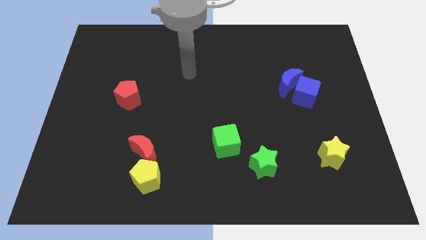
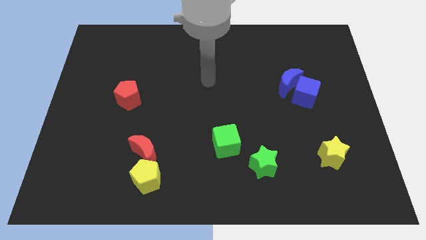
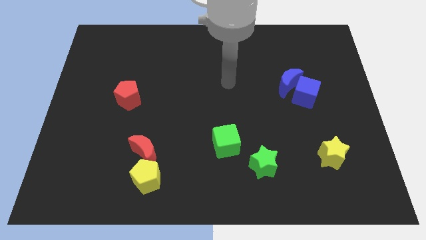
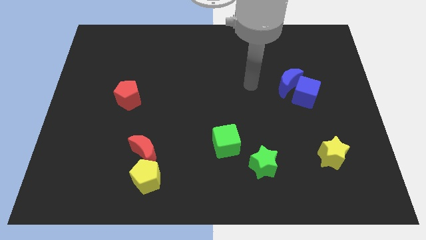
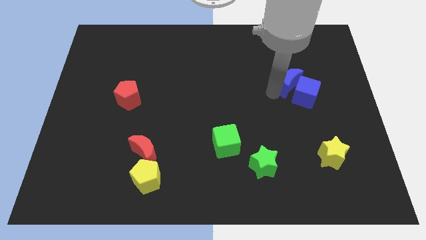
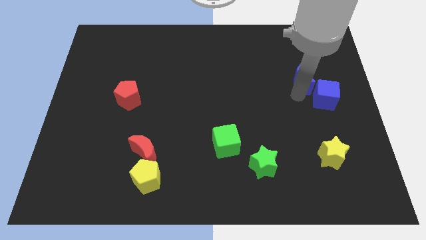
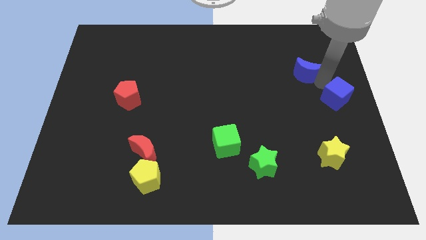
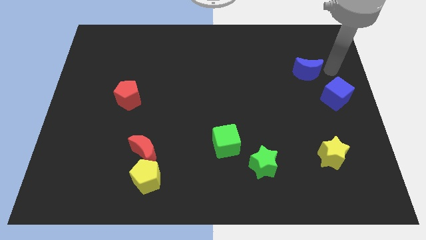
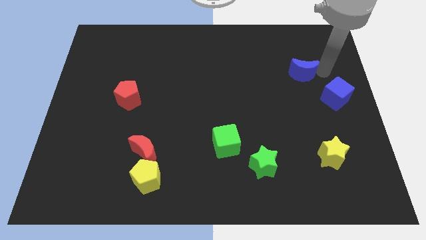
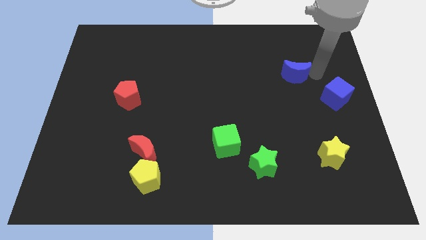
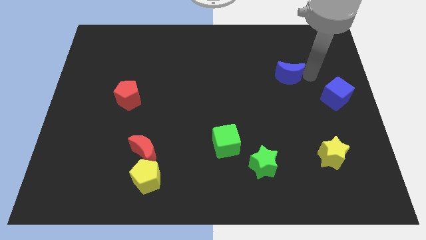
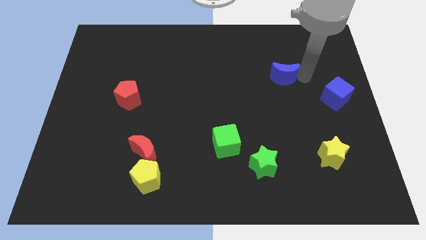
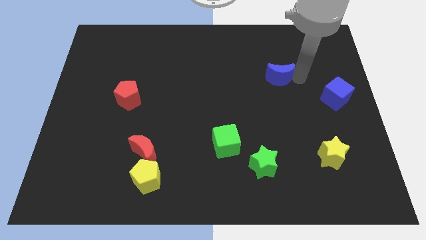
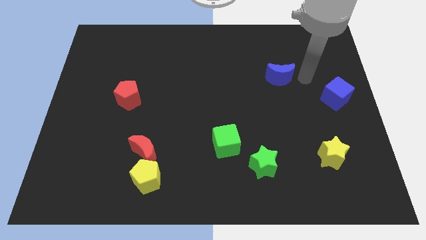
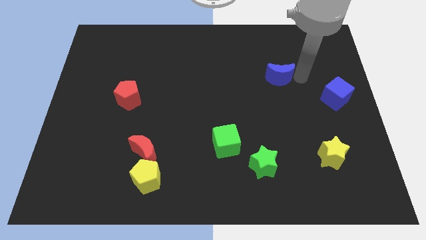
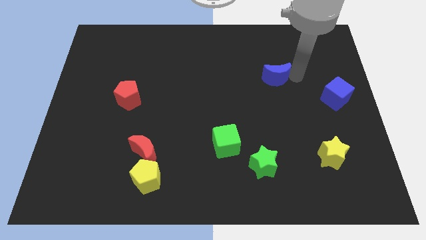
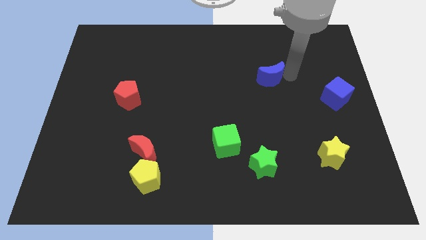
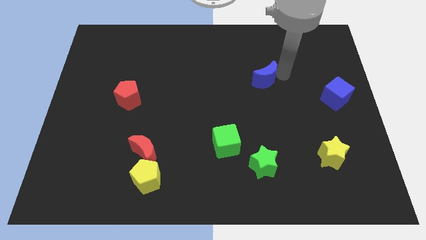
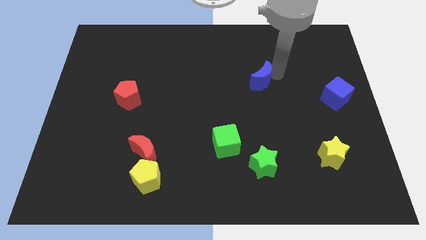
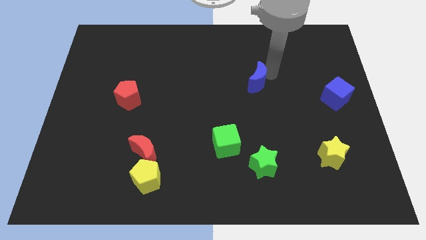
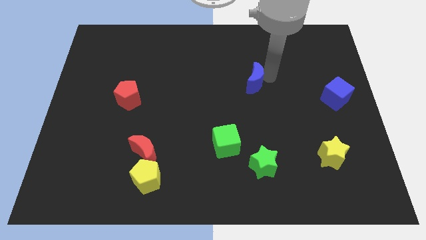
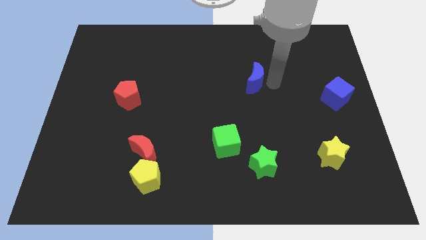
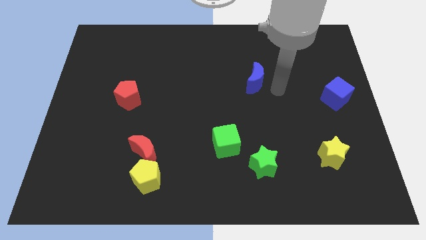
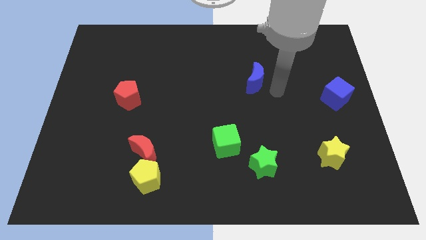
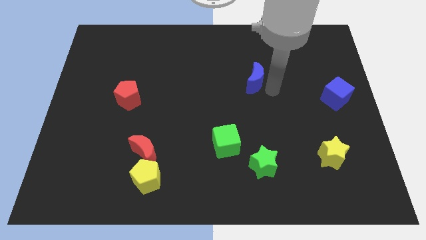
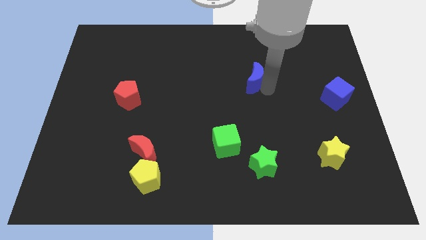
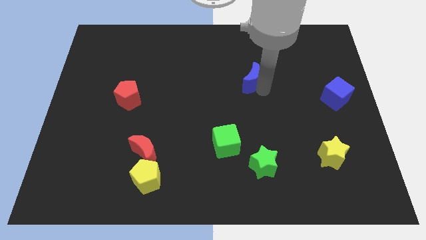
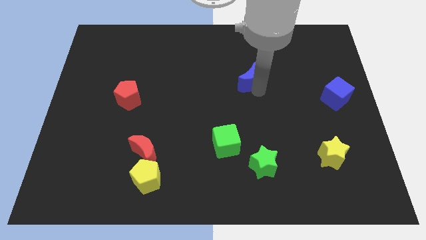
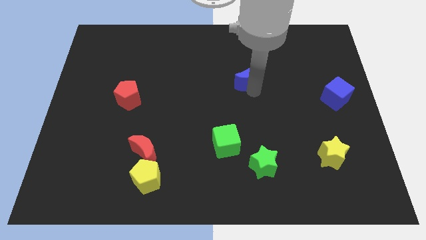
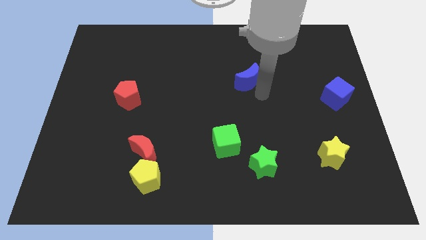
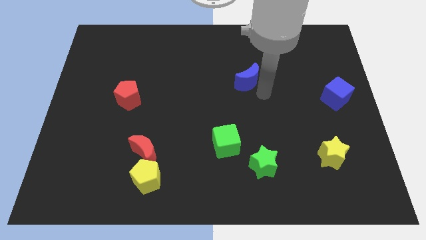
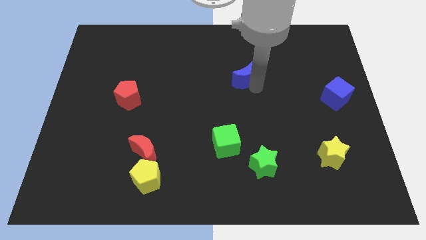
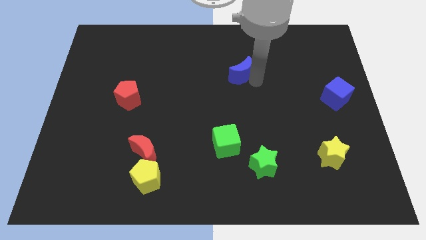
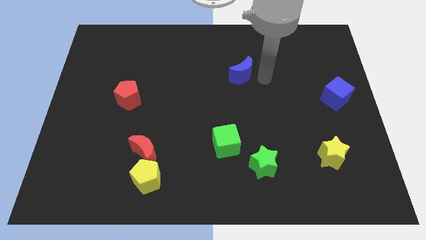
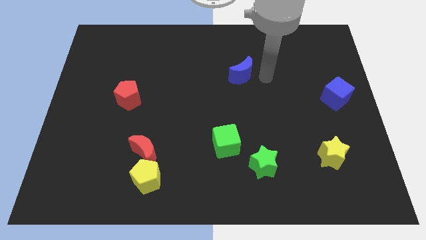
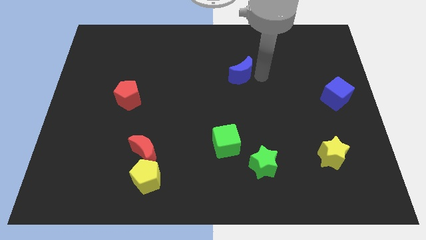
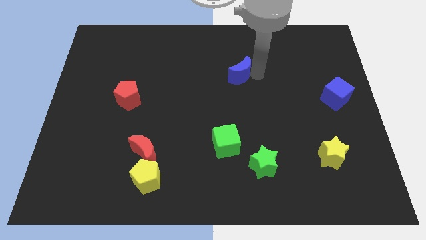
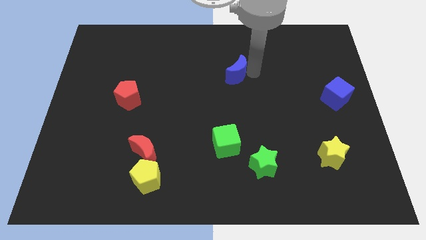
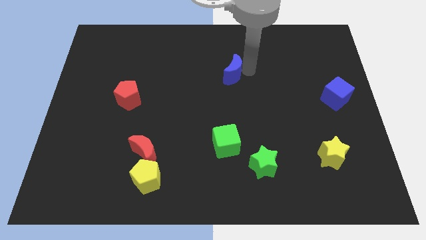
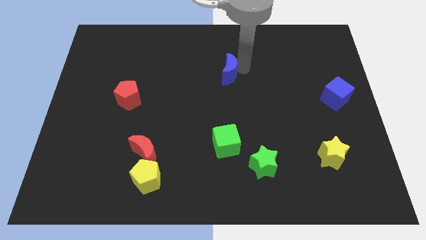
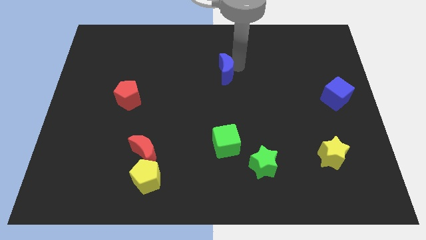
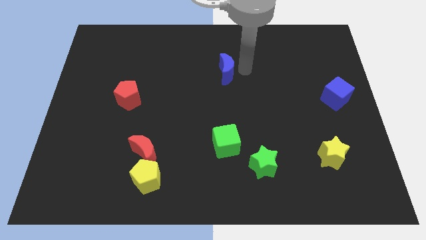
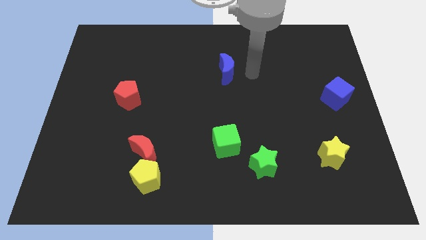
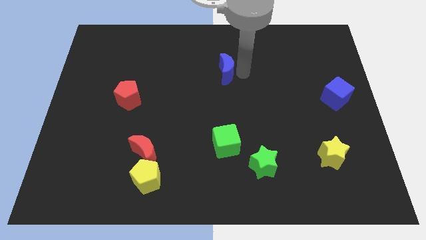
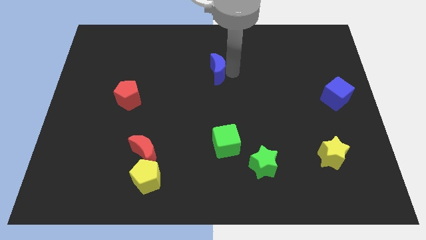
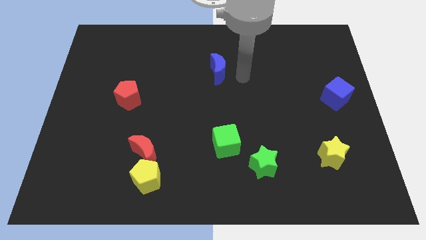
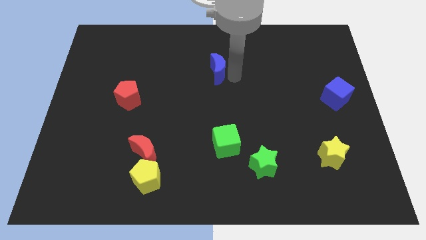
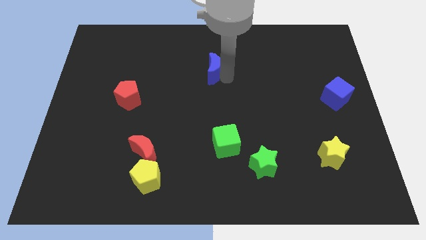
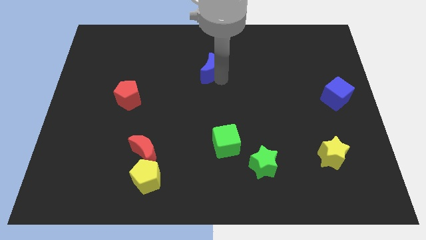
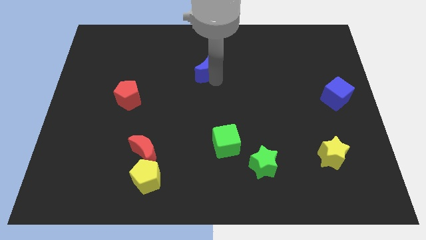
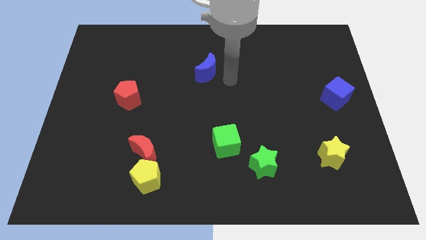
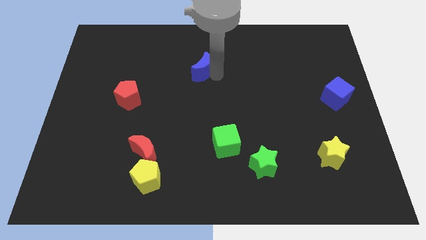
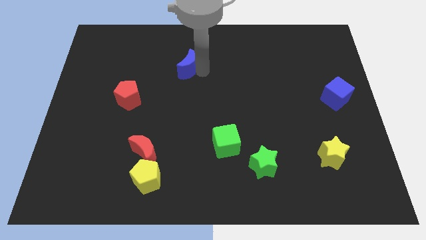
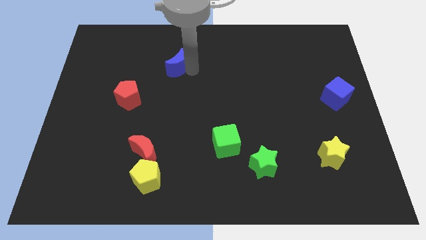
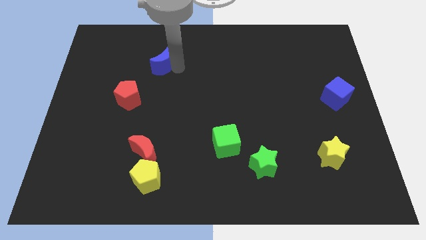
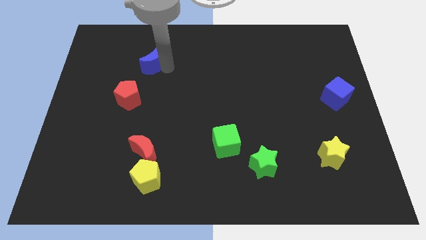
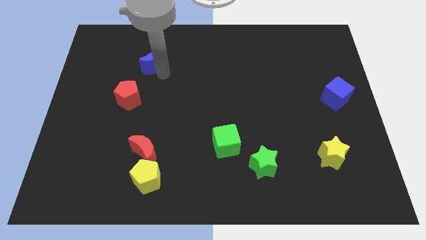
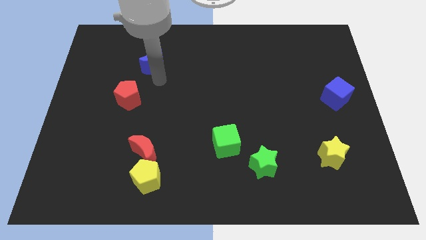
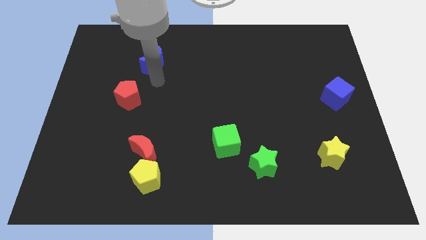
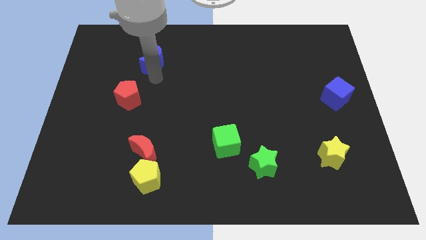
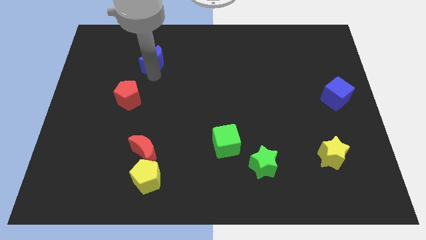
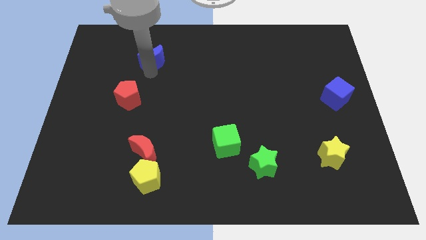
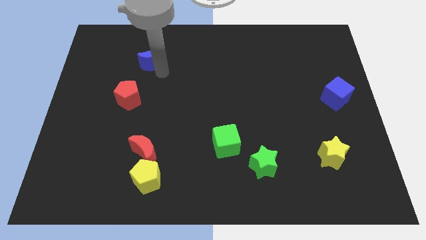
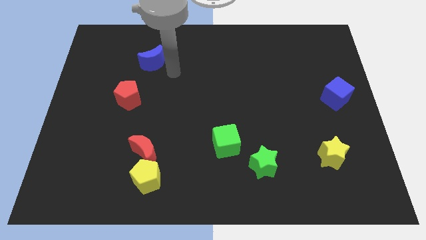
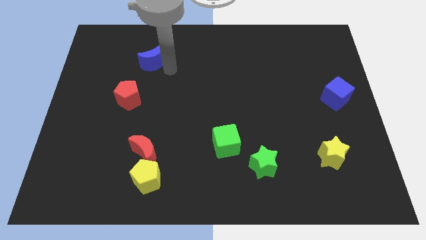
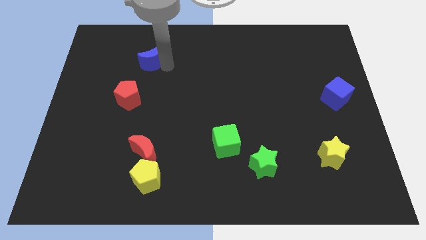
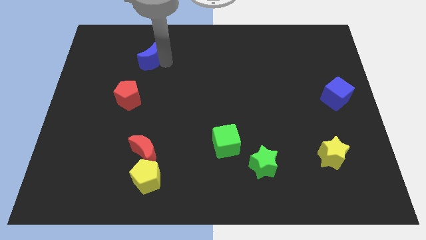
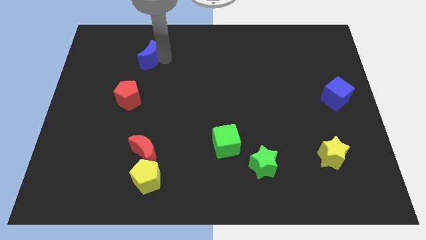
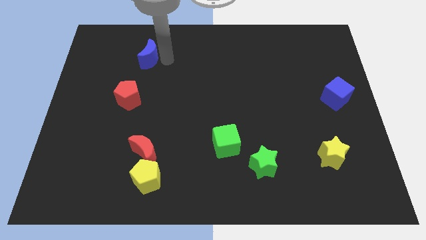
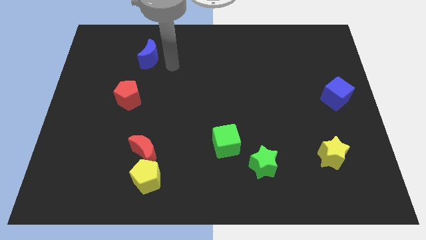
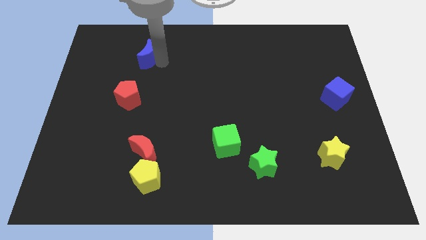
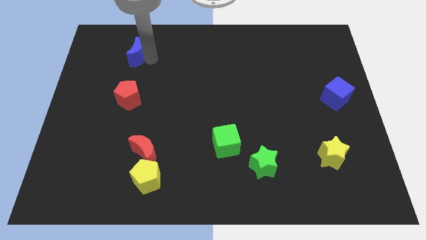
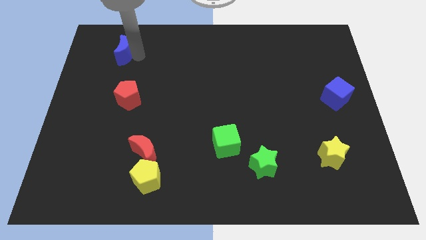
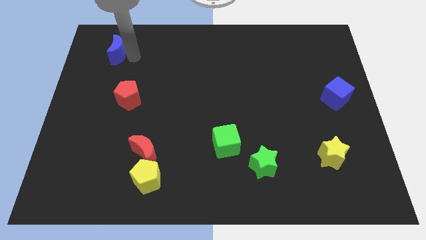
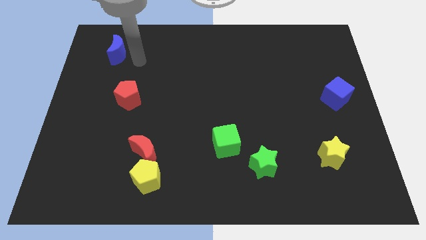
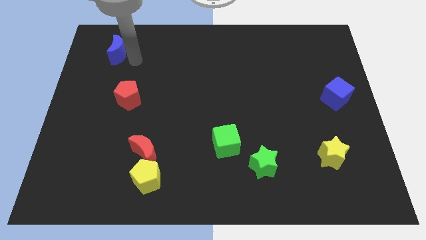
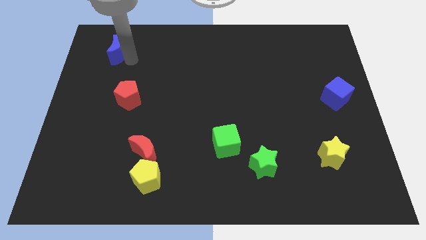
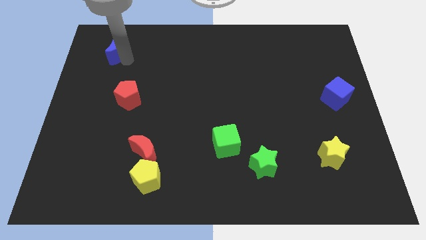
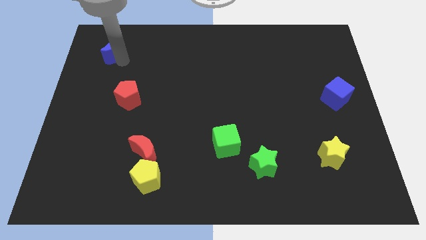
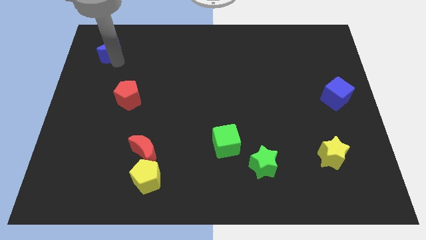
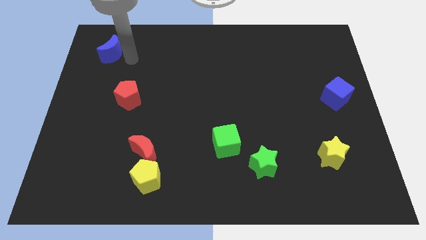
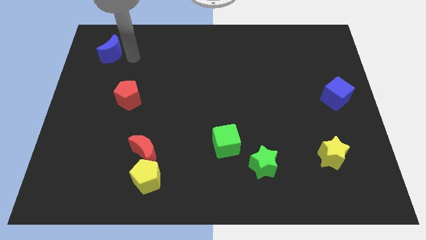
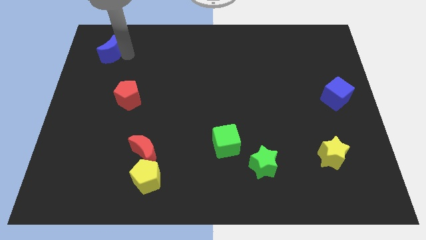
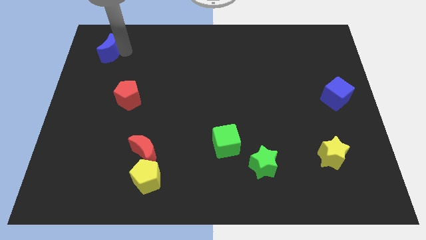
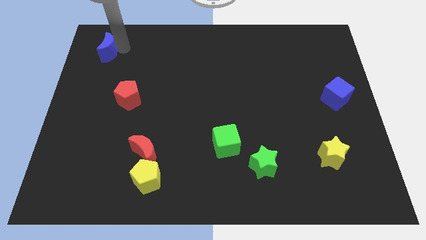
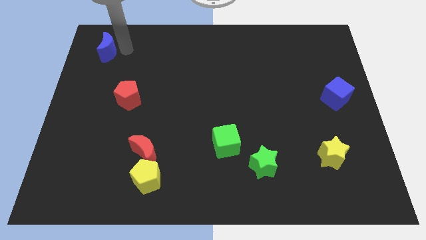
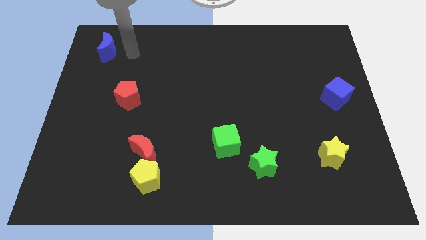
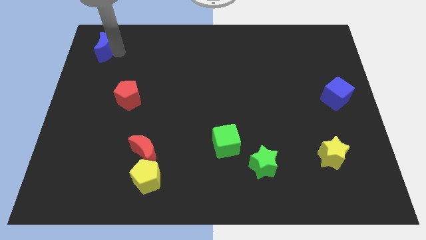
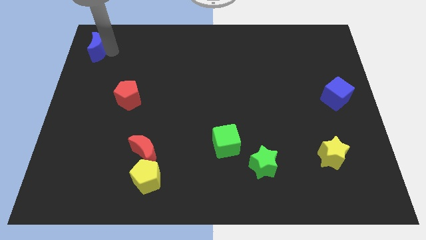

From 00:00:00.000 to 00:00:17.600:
slide the blue moon to the top left

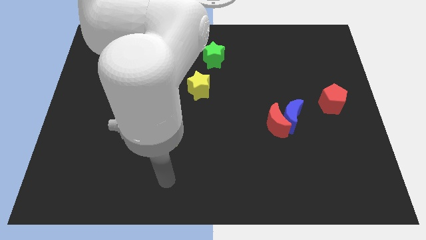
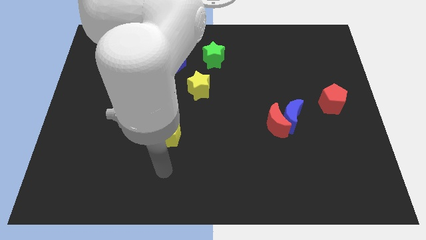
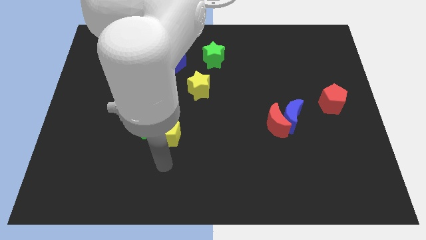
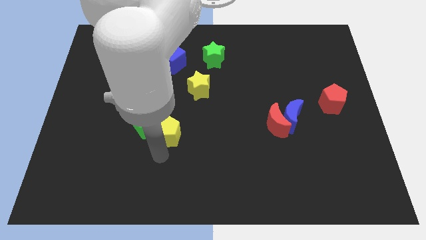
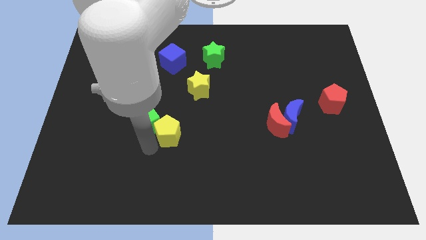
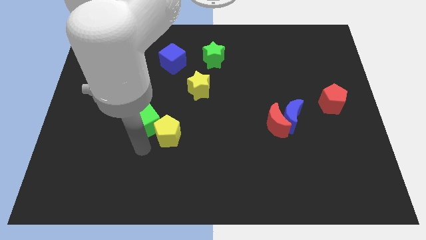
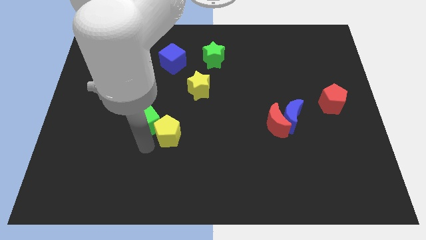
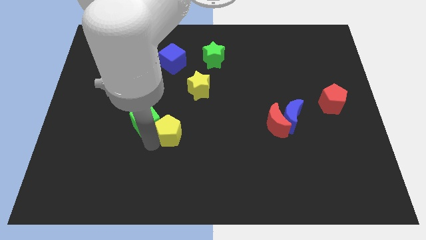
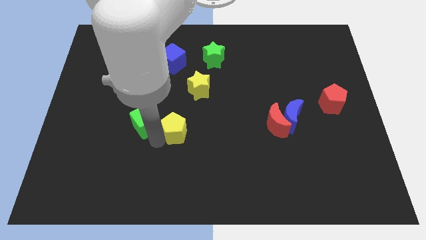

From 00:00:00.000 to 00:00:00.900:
slide the yellow pentagon to the center of the board
